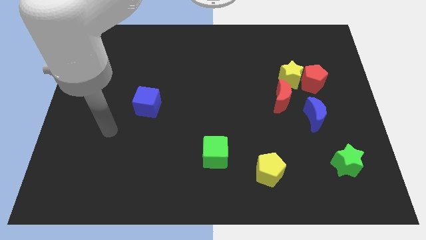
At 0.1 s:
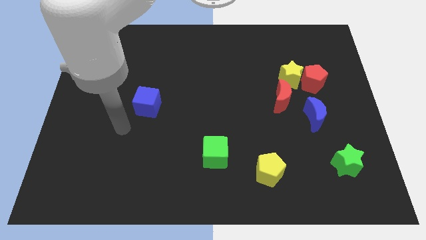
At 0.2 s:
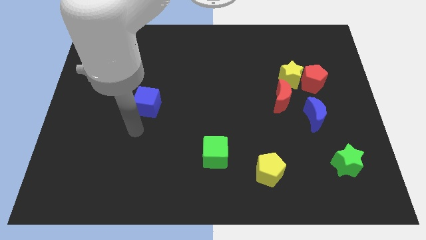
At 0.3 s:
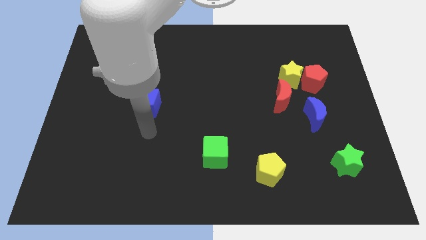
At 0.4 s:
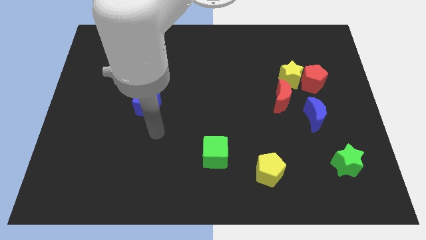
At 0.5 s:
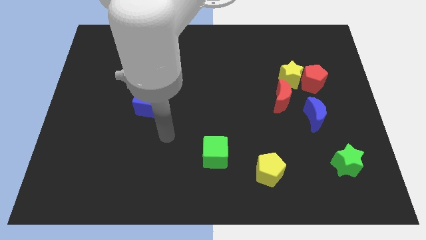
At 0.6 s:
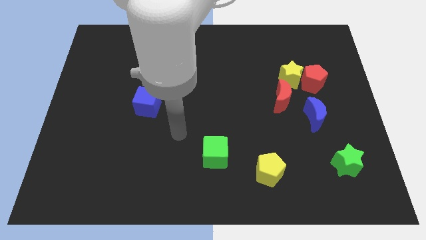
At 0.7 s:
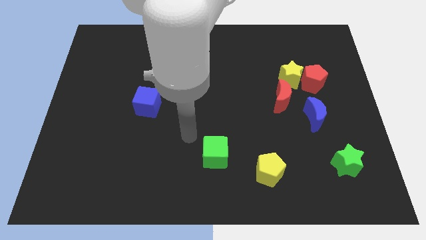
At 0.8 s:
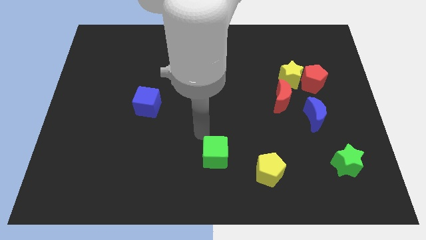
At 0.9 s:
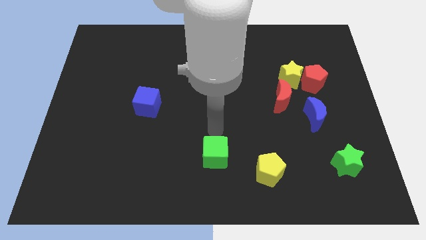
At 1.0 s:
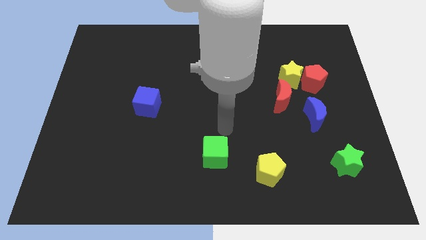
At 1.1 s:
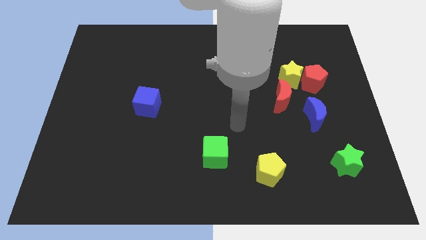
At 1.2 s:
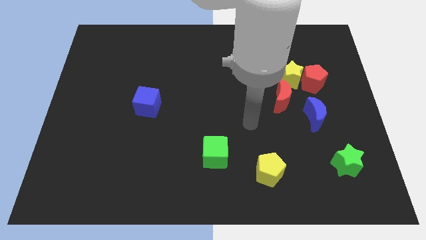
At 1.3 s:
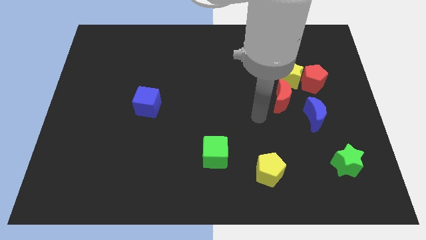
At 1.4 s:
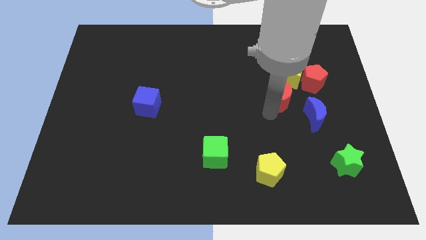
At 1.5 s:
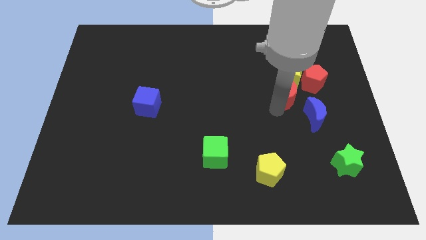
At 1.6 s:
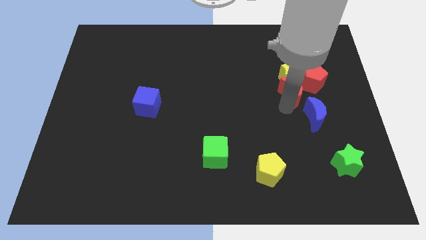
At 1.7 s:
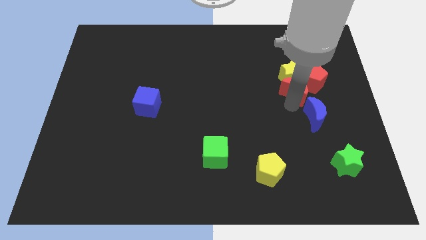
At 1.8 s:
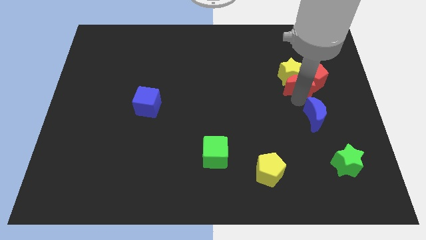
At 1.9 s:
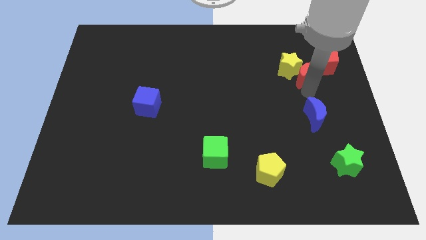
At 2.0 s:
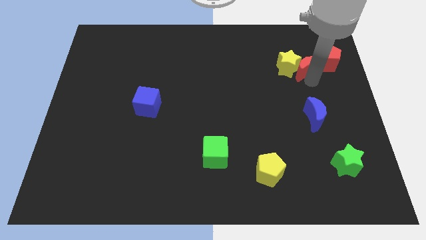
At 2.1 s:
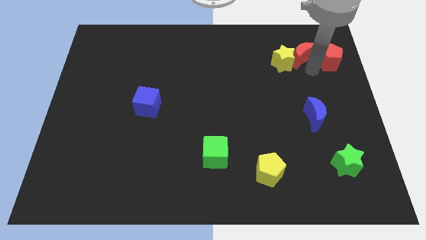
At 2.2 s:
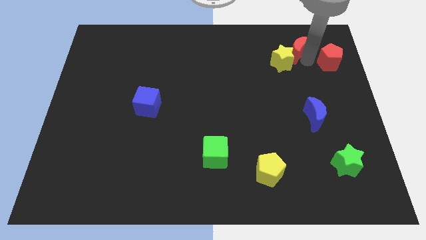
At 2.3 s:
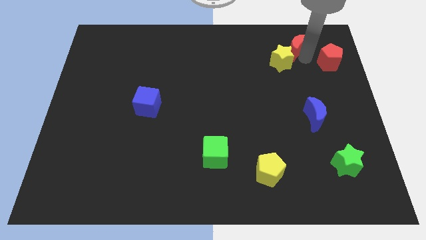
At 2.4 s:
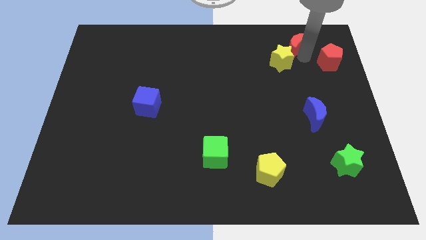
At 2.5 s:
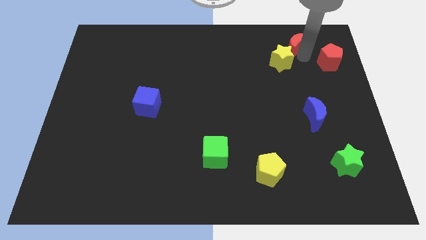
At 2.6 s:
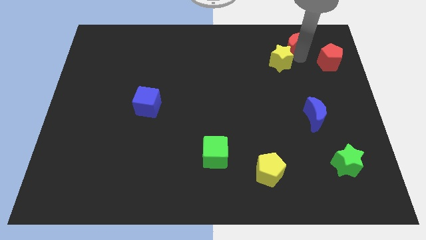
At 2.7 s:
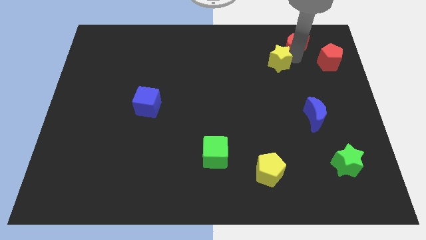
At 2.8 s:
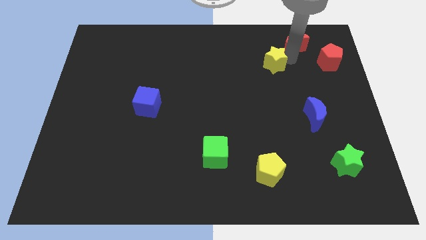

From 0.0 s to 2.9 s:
pull the yellow star apart from the red pentagon and red moon

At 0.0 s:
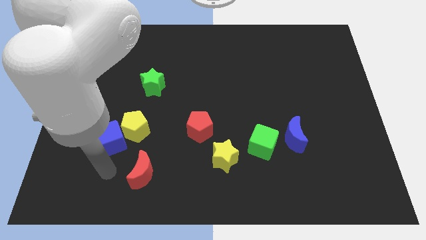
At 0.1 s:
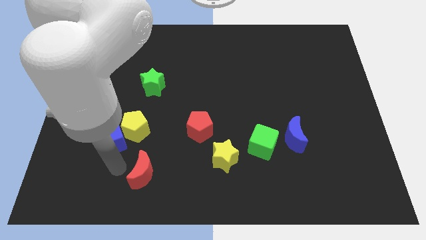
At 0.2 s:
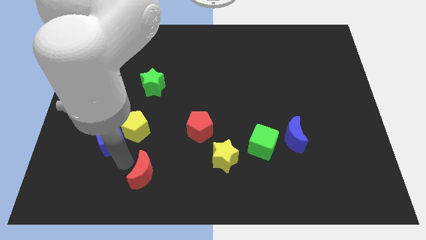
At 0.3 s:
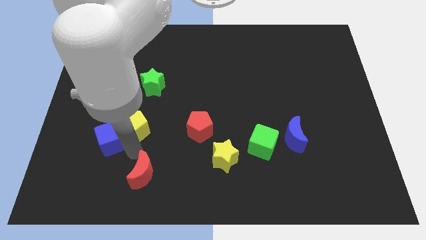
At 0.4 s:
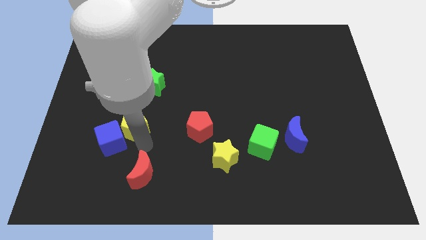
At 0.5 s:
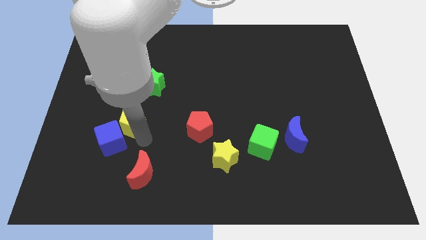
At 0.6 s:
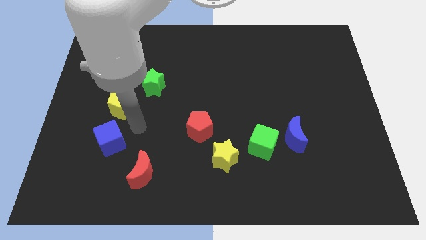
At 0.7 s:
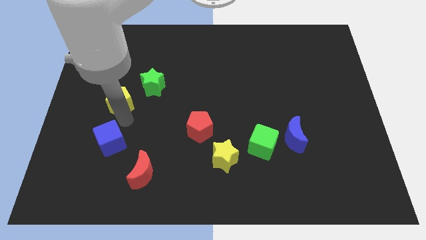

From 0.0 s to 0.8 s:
pull the blue cube apart from the yellow pentagon

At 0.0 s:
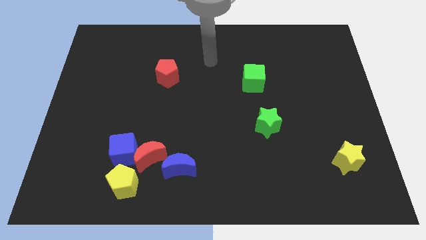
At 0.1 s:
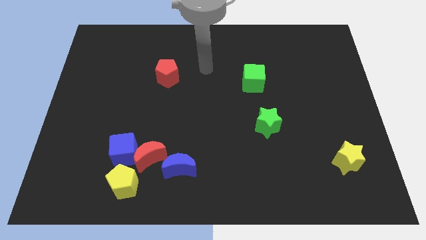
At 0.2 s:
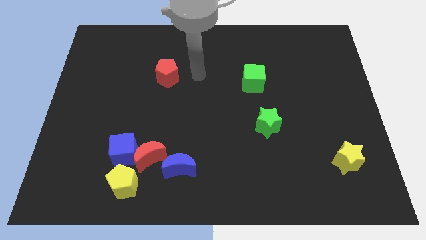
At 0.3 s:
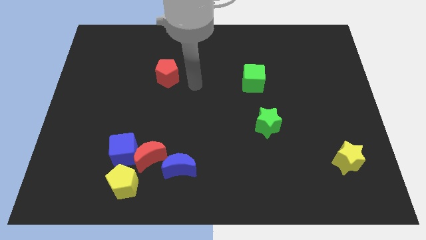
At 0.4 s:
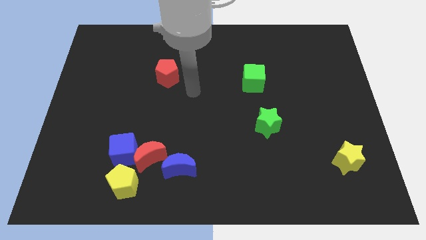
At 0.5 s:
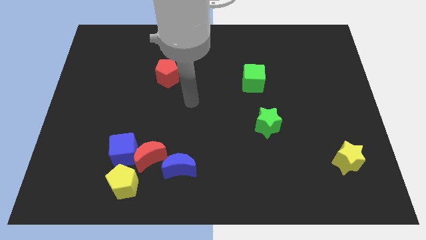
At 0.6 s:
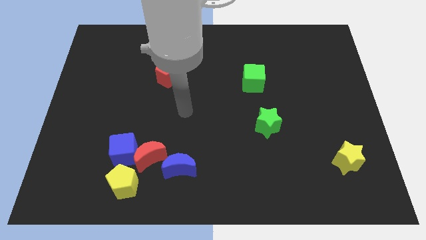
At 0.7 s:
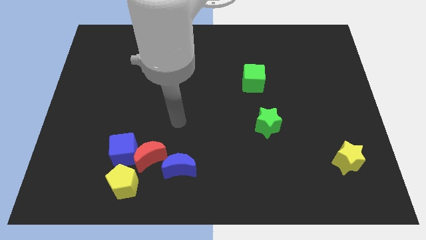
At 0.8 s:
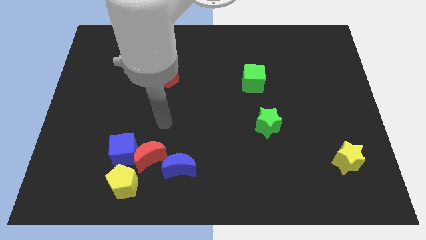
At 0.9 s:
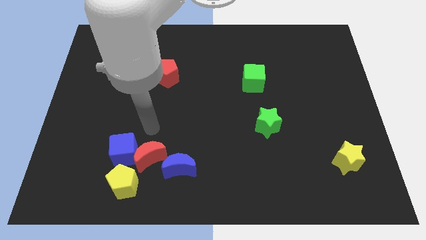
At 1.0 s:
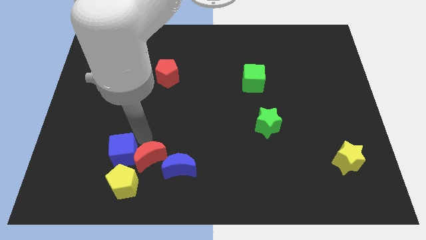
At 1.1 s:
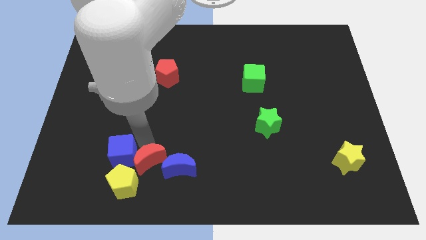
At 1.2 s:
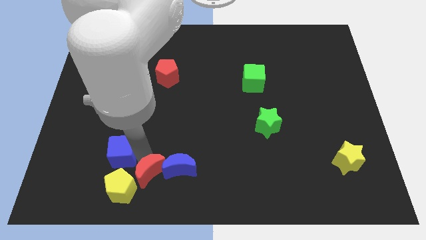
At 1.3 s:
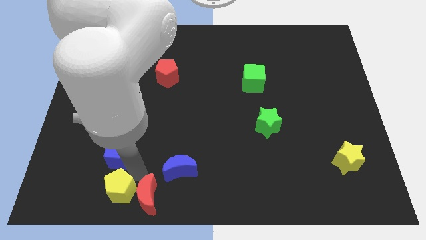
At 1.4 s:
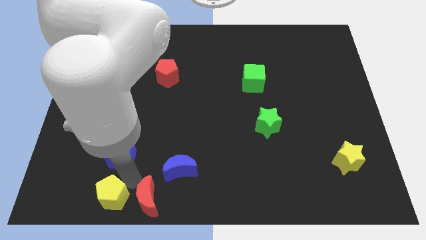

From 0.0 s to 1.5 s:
separate the blue cube from the red moon and yellow pentagon

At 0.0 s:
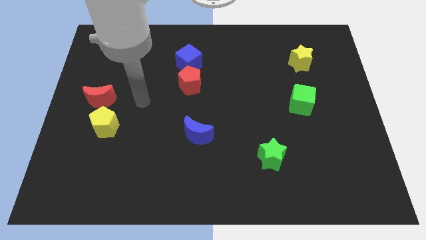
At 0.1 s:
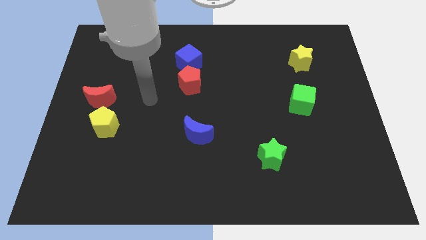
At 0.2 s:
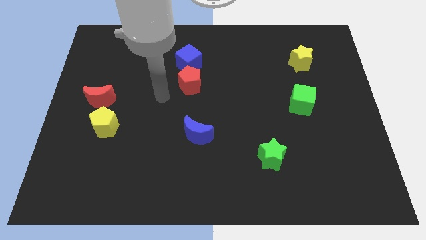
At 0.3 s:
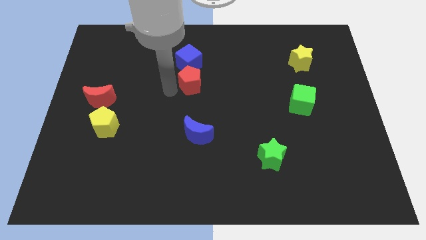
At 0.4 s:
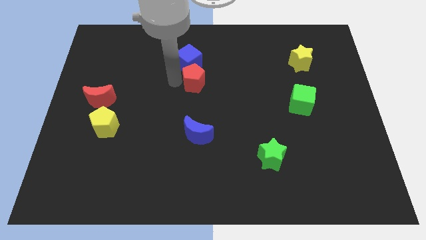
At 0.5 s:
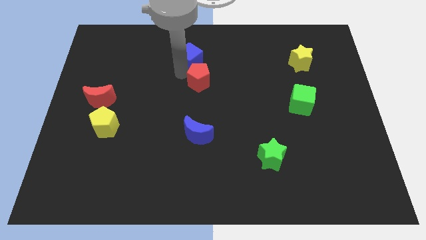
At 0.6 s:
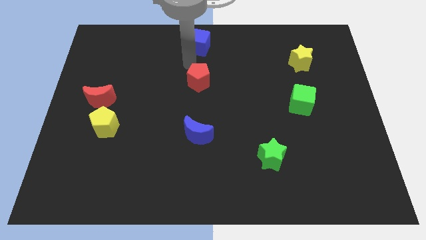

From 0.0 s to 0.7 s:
pull the red pentagon apart from the blue cube

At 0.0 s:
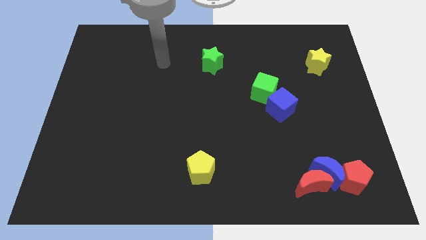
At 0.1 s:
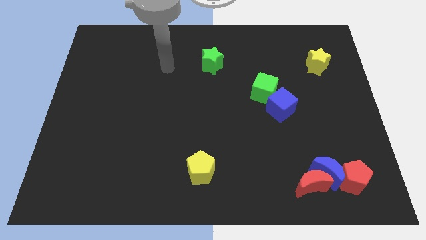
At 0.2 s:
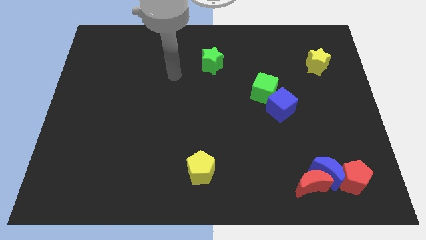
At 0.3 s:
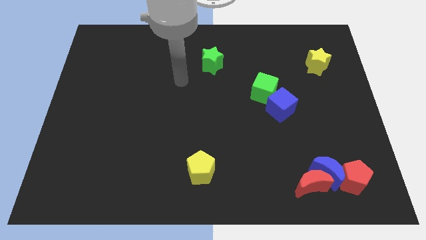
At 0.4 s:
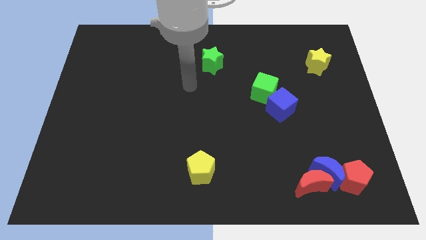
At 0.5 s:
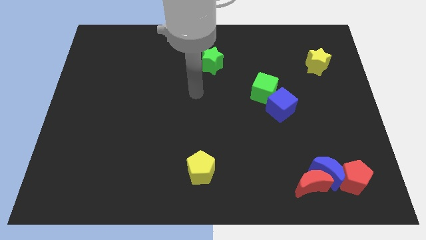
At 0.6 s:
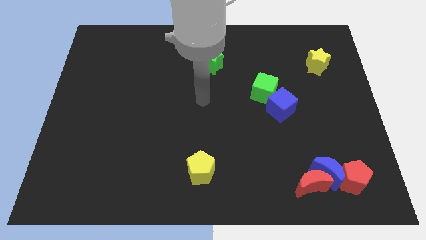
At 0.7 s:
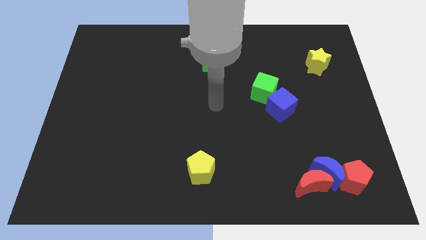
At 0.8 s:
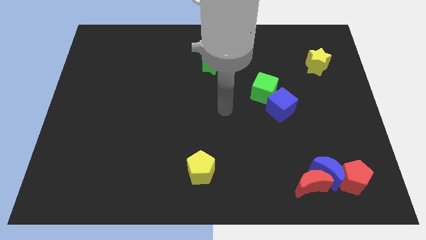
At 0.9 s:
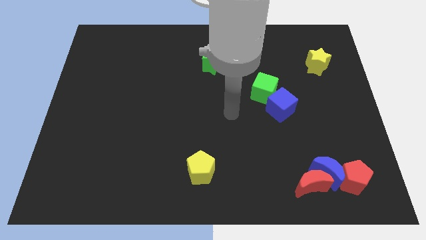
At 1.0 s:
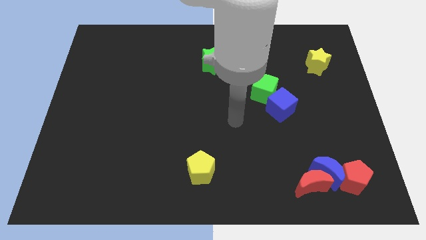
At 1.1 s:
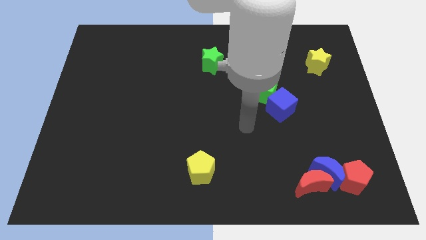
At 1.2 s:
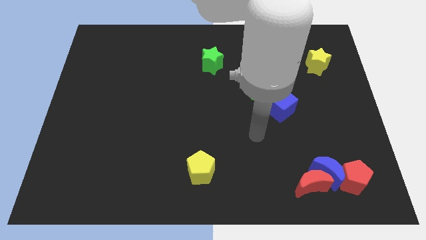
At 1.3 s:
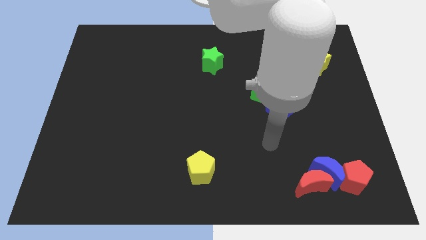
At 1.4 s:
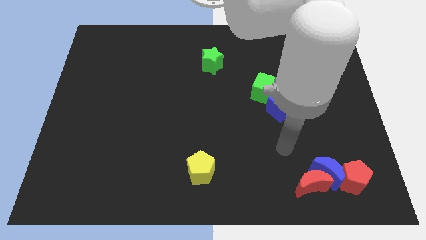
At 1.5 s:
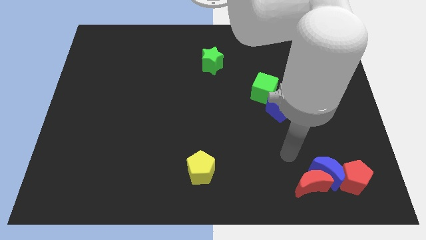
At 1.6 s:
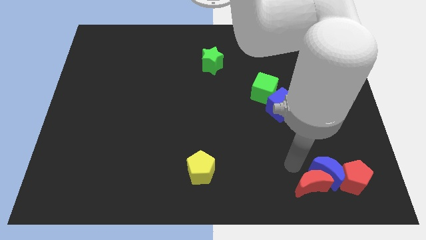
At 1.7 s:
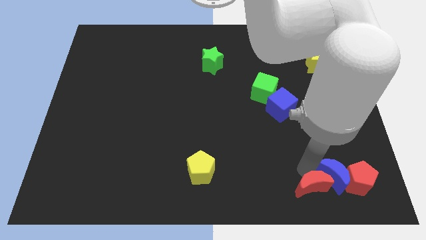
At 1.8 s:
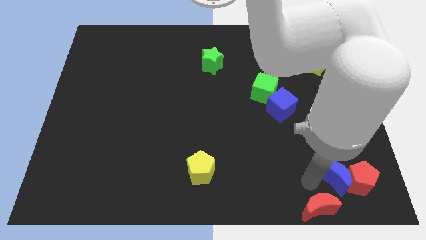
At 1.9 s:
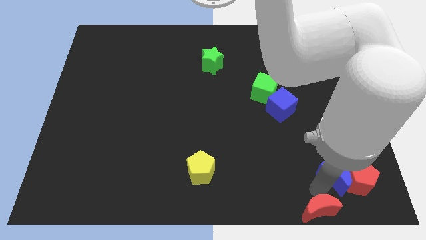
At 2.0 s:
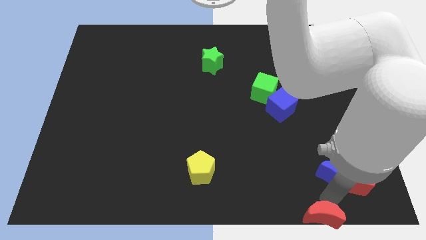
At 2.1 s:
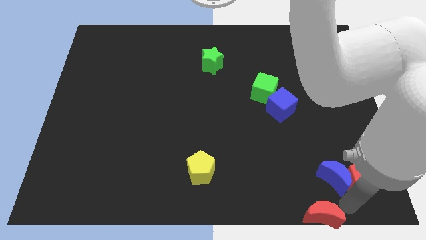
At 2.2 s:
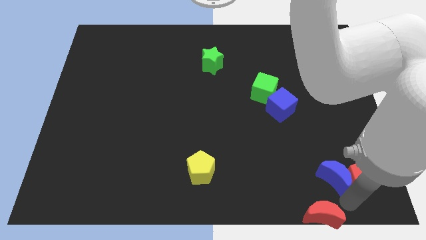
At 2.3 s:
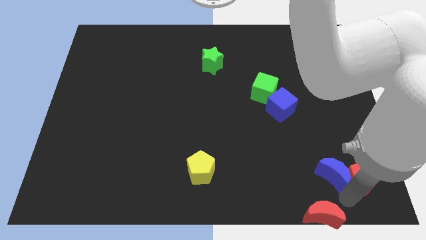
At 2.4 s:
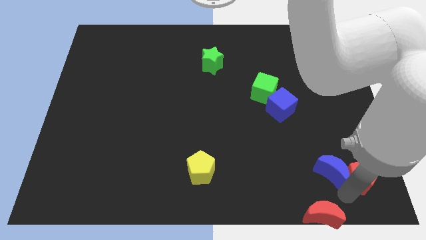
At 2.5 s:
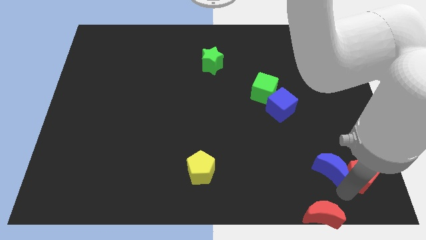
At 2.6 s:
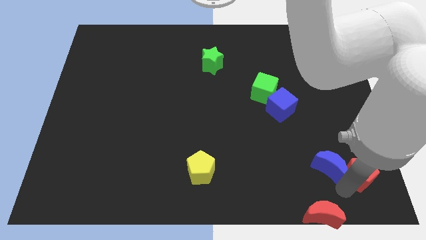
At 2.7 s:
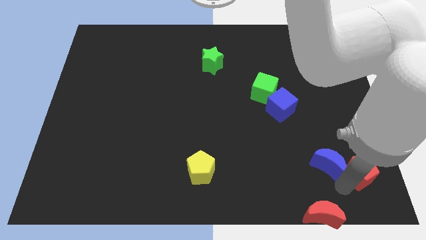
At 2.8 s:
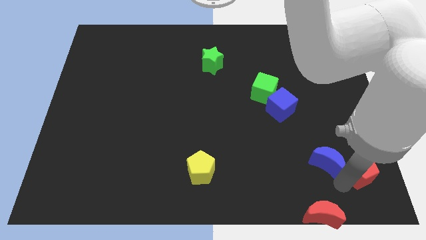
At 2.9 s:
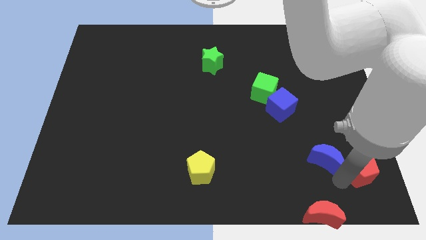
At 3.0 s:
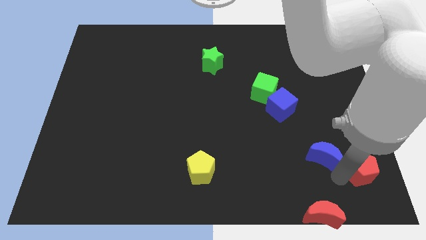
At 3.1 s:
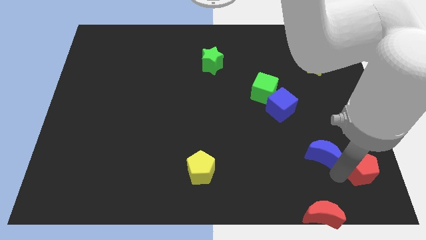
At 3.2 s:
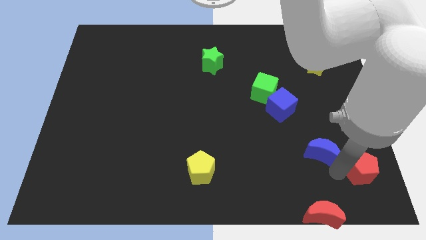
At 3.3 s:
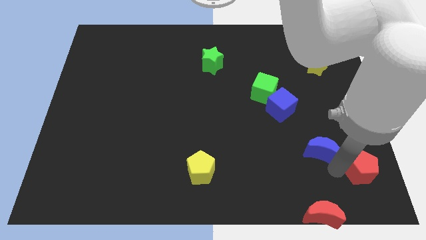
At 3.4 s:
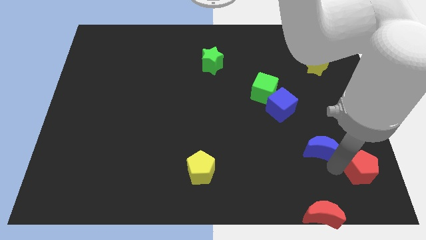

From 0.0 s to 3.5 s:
separate the blue moon from the red moon and red pentagon
